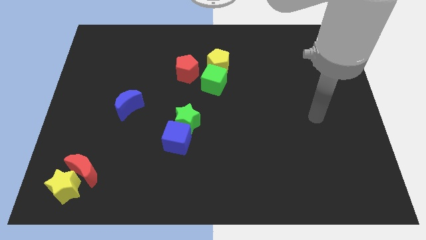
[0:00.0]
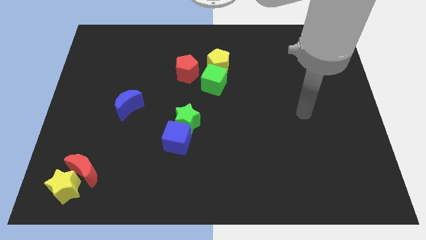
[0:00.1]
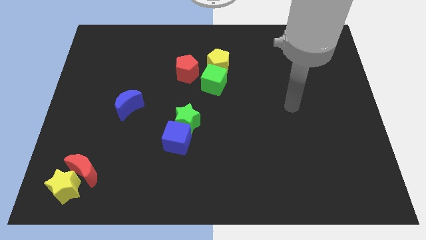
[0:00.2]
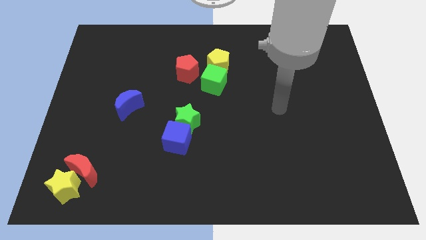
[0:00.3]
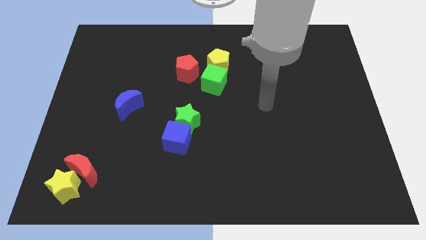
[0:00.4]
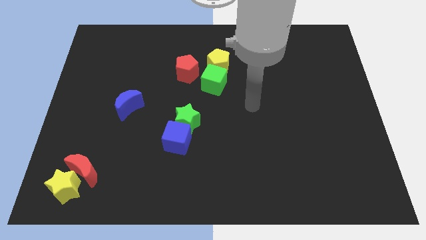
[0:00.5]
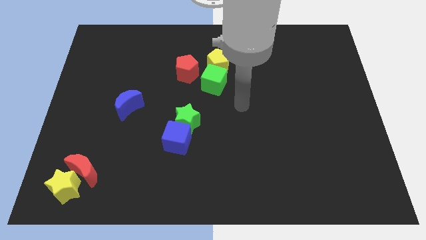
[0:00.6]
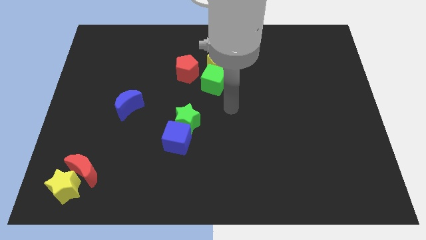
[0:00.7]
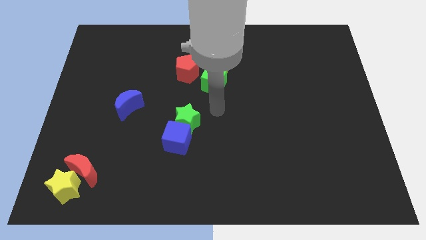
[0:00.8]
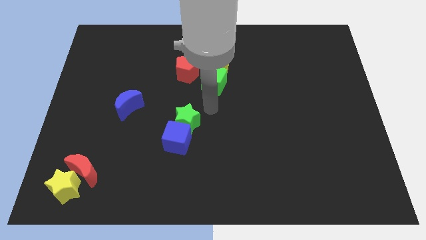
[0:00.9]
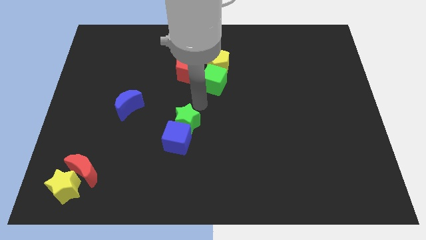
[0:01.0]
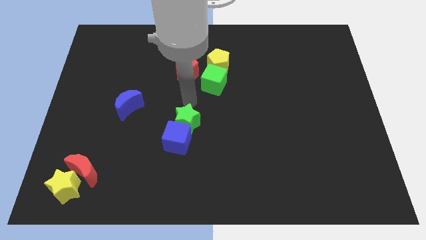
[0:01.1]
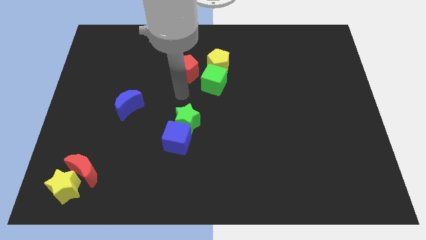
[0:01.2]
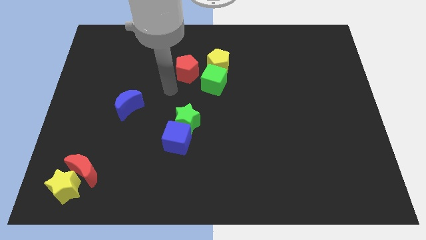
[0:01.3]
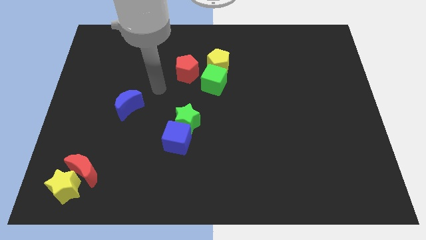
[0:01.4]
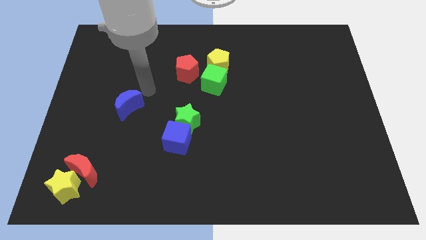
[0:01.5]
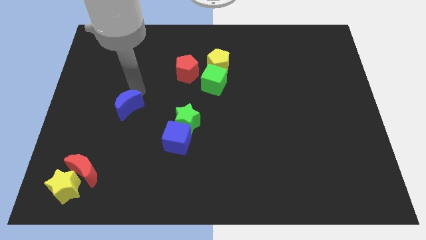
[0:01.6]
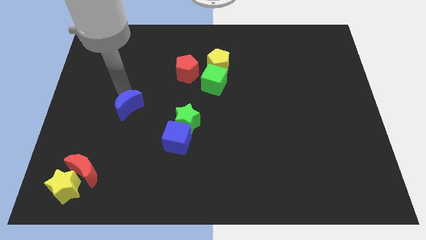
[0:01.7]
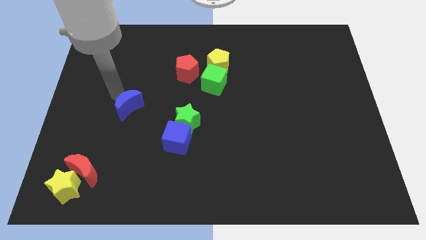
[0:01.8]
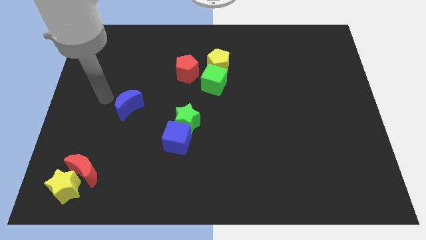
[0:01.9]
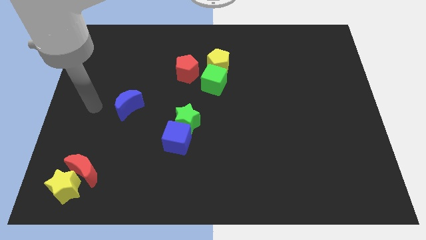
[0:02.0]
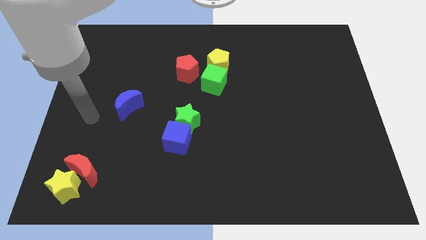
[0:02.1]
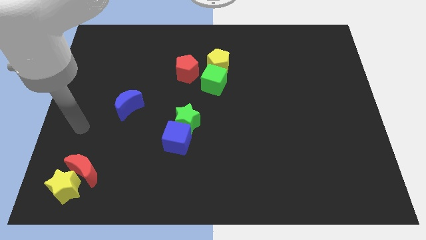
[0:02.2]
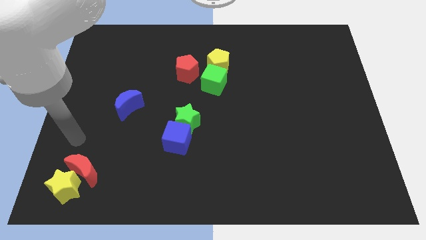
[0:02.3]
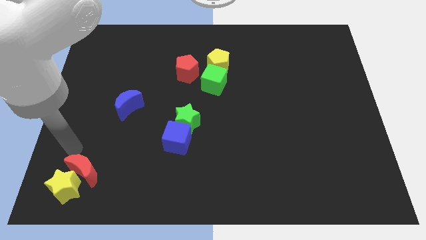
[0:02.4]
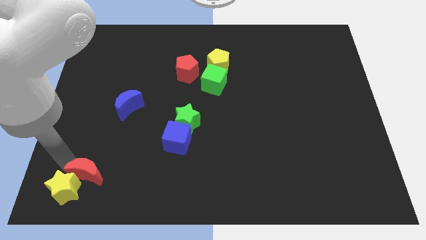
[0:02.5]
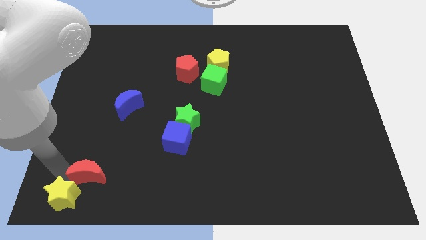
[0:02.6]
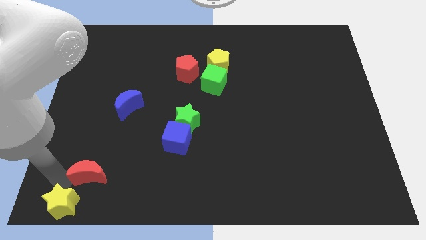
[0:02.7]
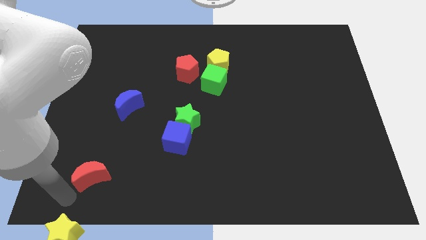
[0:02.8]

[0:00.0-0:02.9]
pull the red moon apart from the yellow star

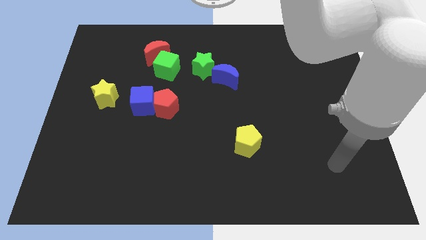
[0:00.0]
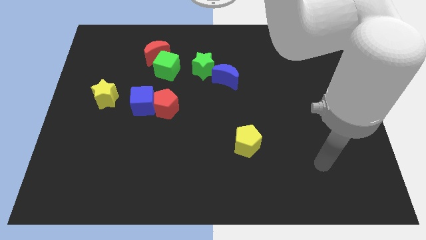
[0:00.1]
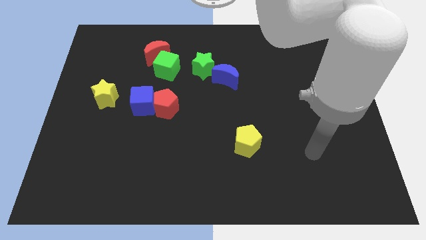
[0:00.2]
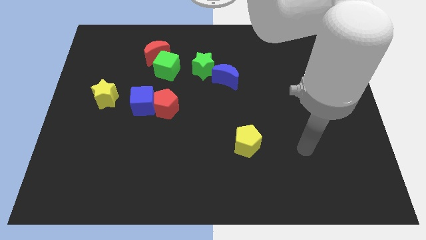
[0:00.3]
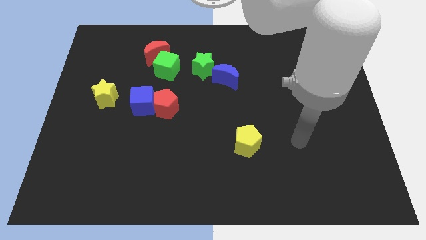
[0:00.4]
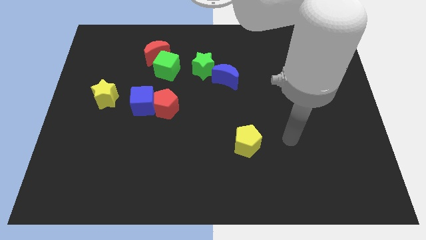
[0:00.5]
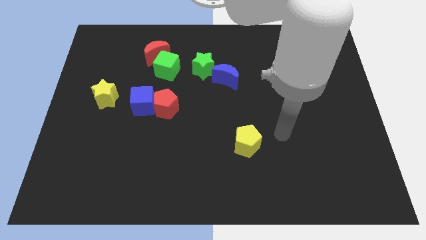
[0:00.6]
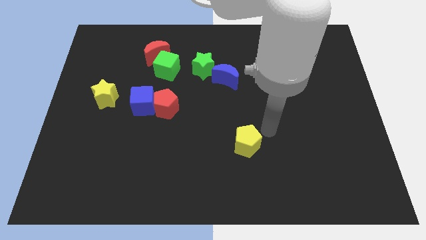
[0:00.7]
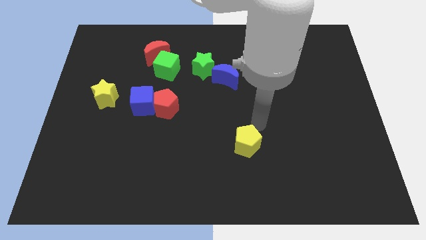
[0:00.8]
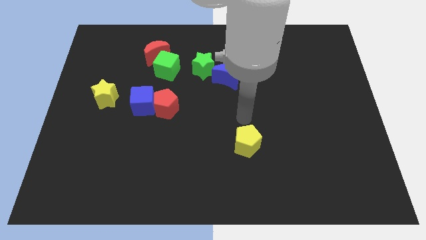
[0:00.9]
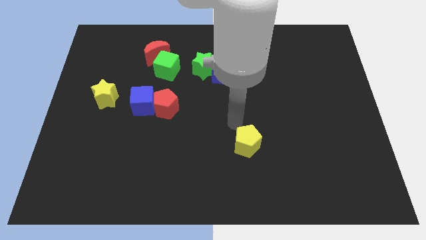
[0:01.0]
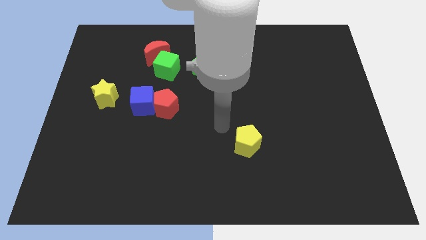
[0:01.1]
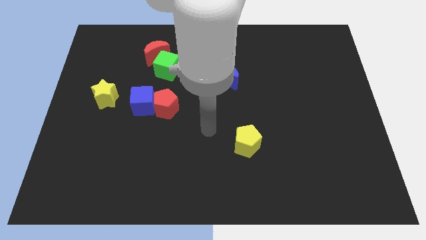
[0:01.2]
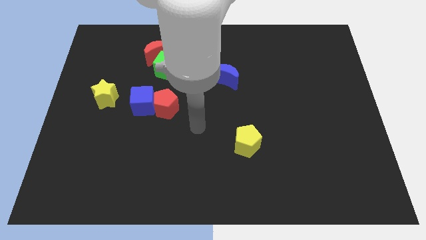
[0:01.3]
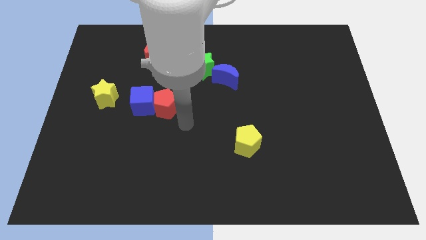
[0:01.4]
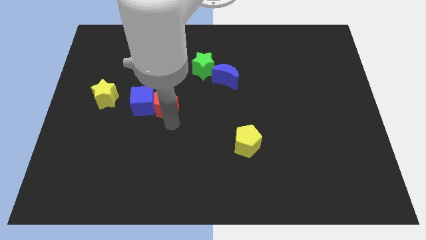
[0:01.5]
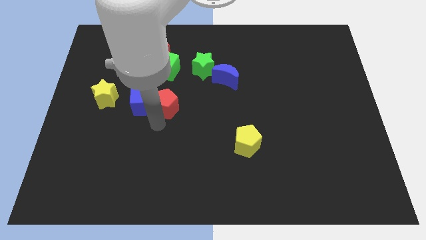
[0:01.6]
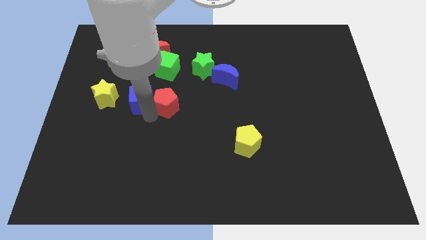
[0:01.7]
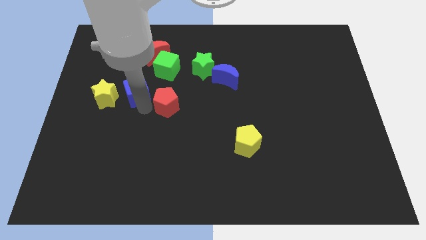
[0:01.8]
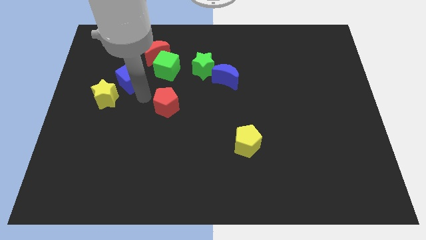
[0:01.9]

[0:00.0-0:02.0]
separate the red pentagon from the blue cube

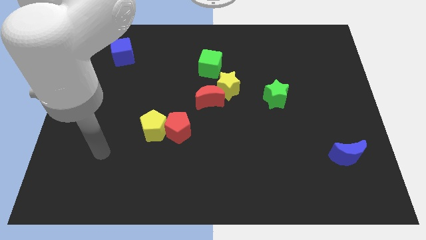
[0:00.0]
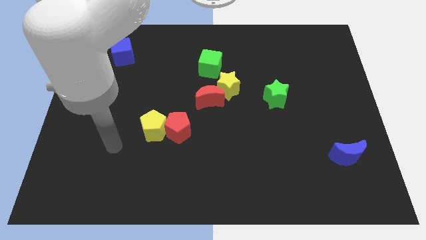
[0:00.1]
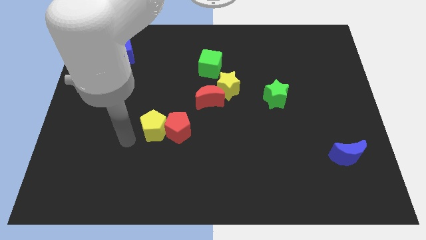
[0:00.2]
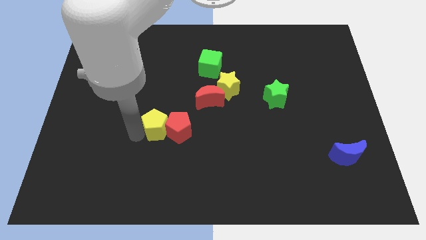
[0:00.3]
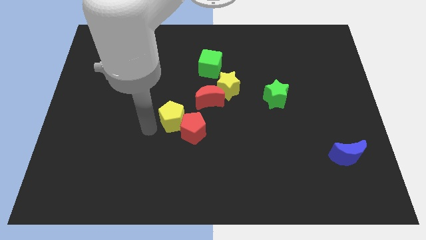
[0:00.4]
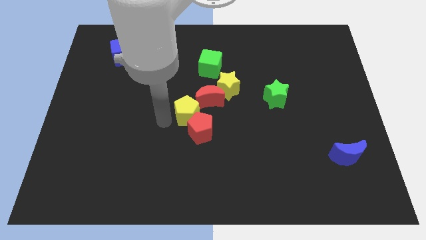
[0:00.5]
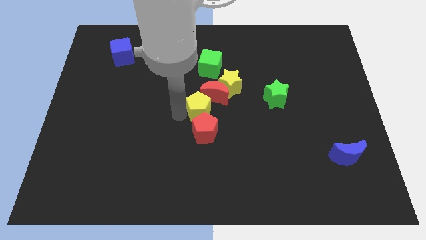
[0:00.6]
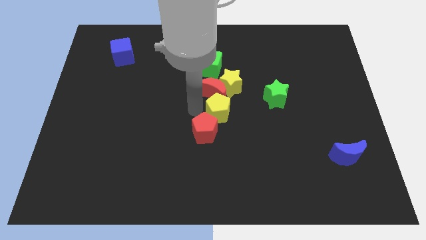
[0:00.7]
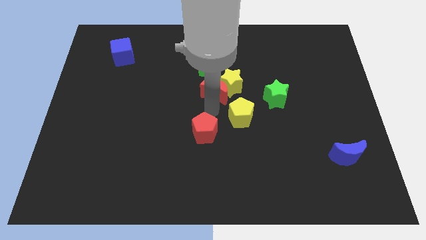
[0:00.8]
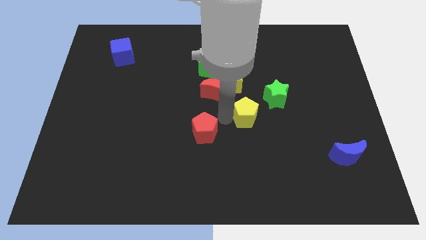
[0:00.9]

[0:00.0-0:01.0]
pull the red pentagon apart from the yellow pentagon

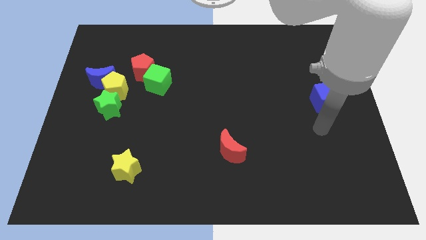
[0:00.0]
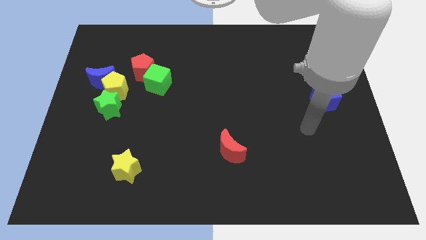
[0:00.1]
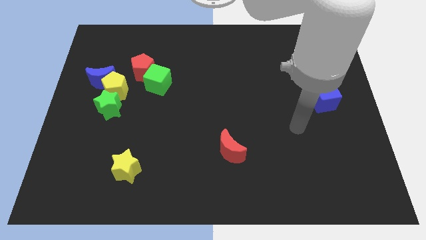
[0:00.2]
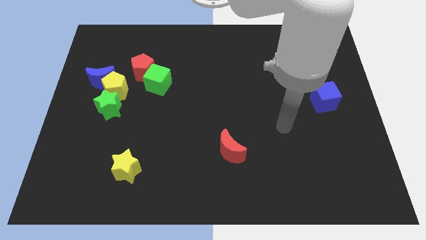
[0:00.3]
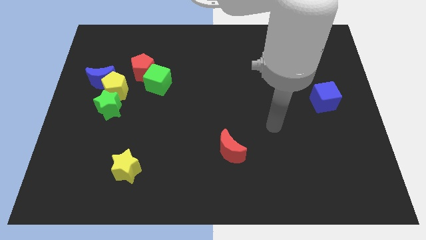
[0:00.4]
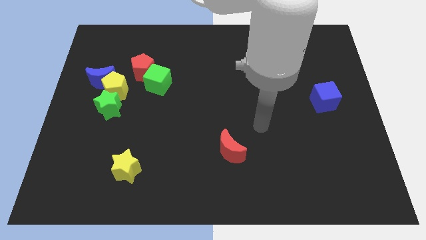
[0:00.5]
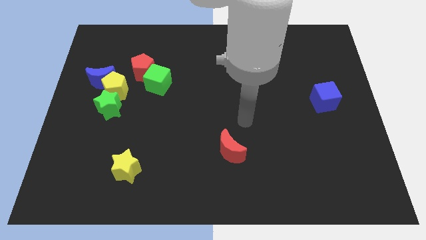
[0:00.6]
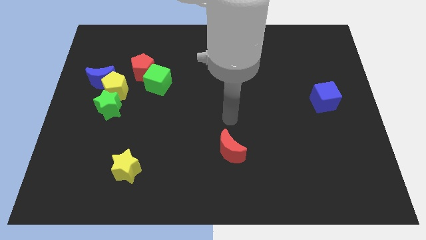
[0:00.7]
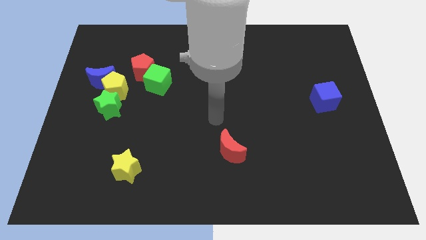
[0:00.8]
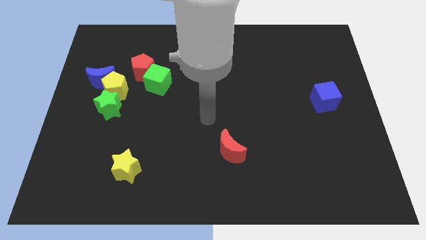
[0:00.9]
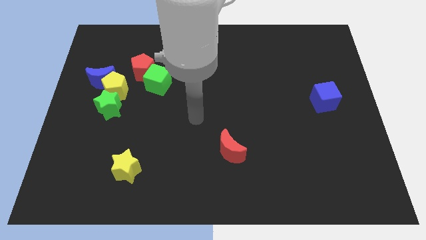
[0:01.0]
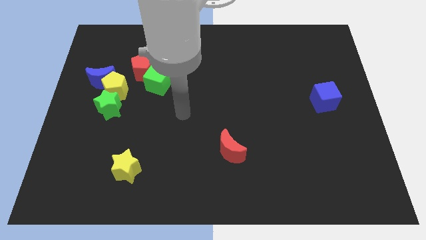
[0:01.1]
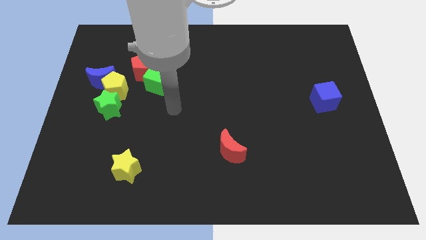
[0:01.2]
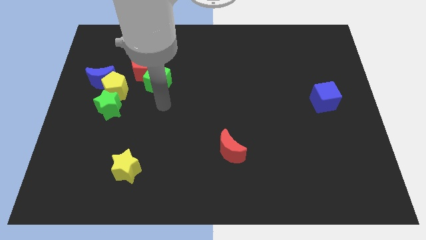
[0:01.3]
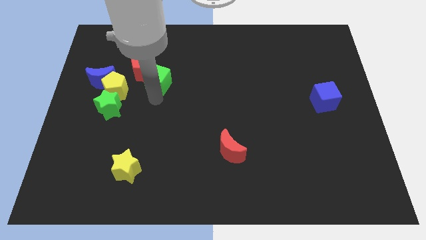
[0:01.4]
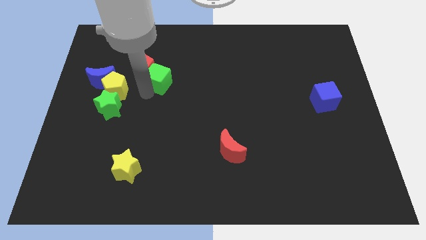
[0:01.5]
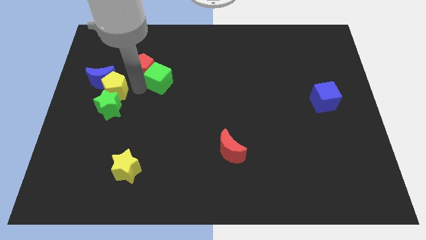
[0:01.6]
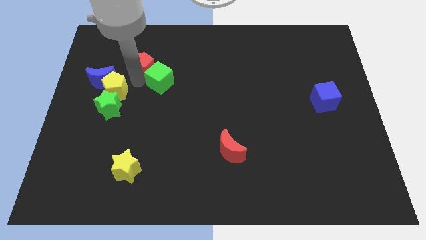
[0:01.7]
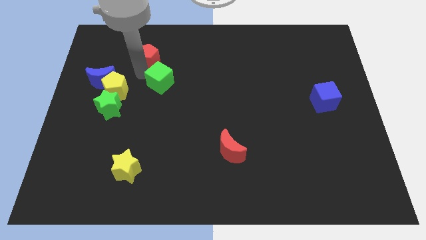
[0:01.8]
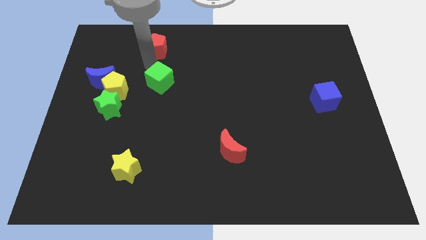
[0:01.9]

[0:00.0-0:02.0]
pull the green cube apart from the red pentagon

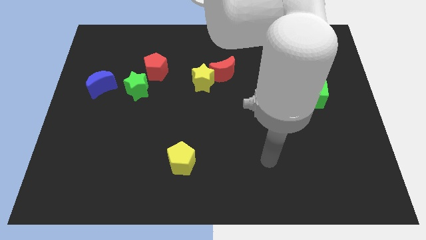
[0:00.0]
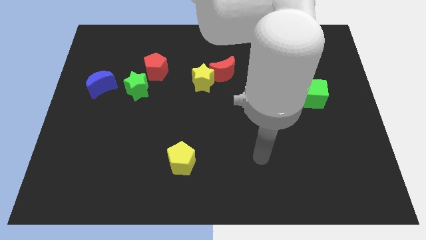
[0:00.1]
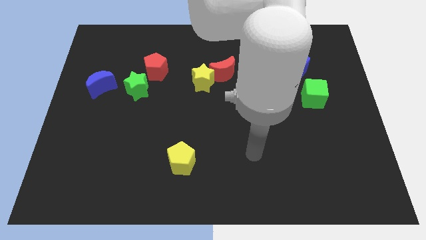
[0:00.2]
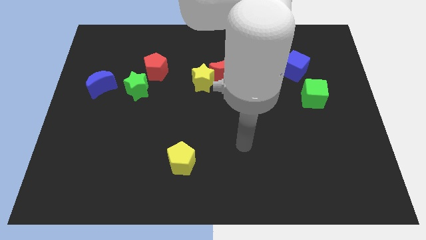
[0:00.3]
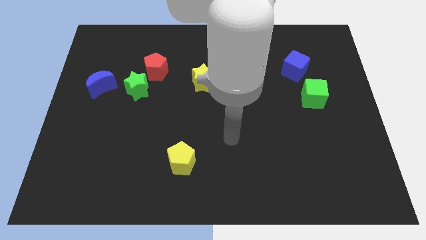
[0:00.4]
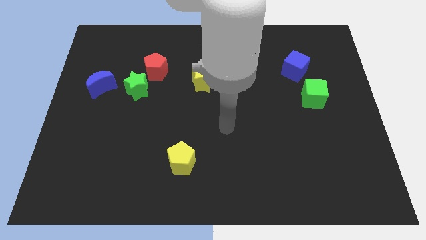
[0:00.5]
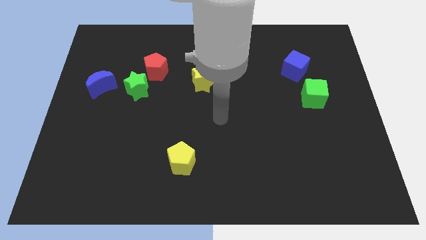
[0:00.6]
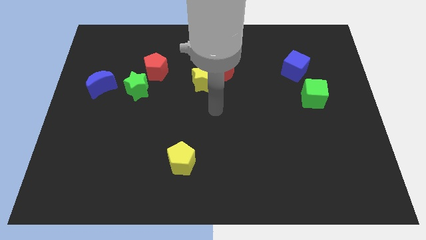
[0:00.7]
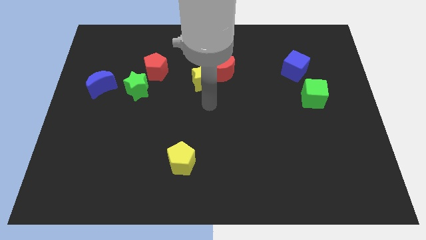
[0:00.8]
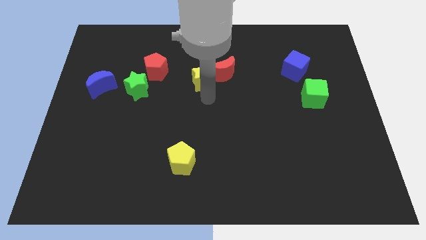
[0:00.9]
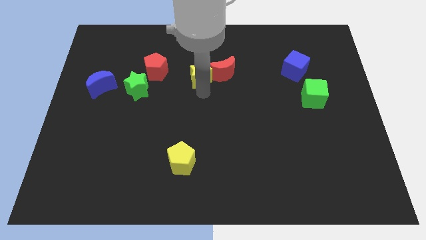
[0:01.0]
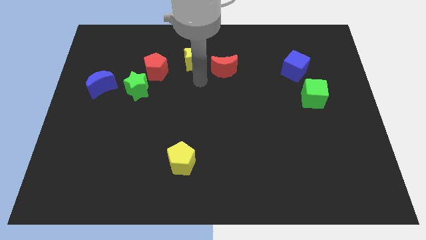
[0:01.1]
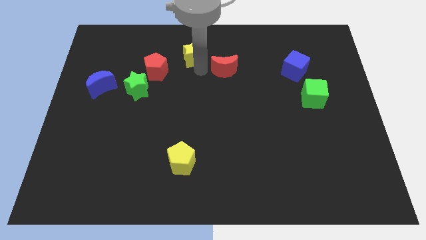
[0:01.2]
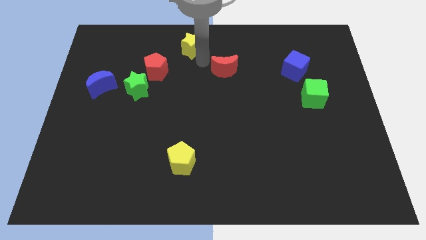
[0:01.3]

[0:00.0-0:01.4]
move the red moon away from the yellow star
